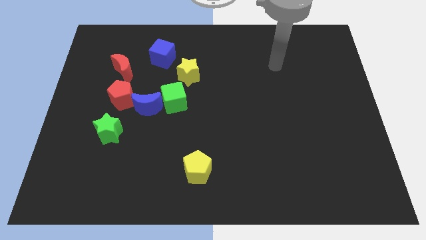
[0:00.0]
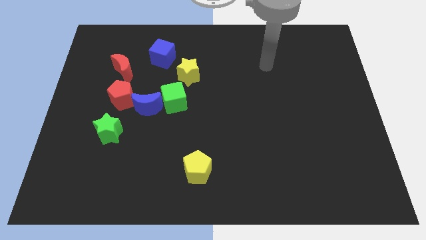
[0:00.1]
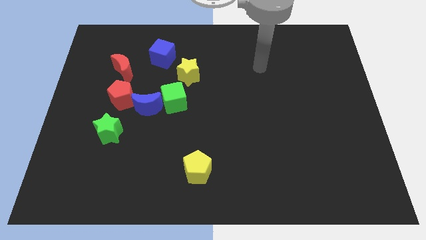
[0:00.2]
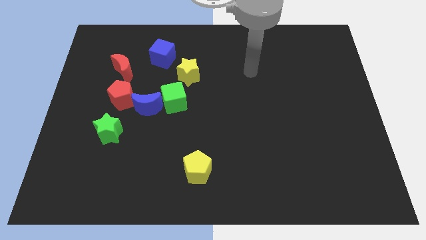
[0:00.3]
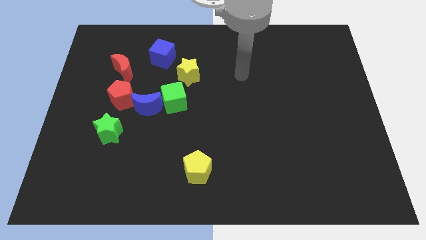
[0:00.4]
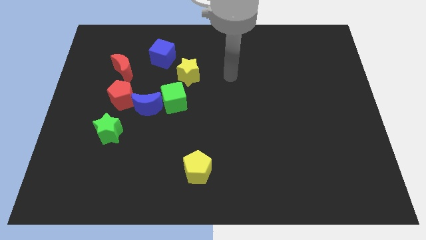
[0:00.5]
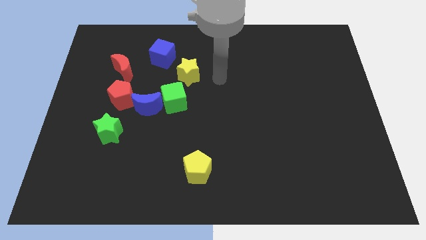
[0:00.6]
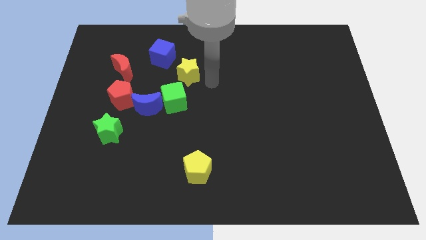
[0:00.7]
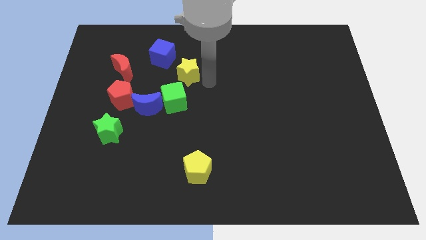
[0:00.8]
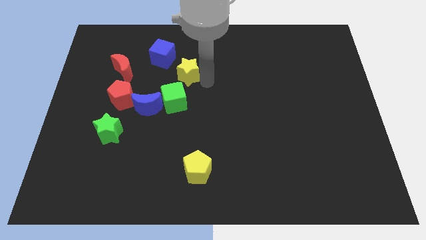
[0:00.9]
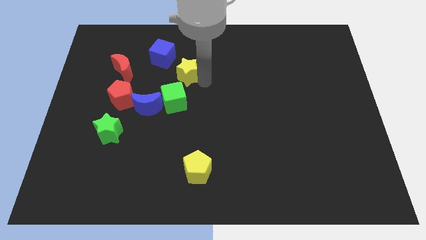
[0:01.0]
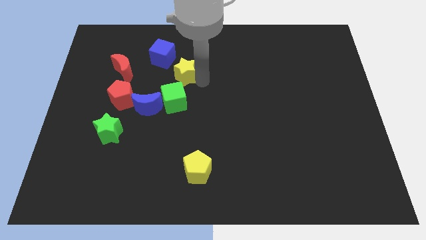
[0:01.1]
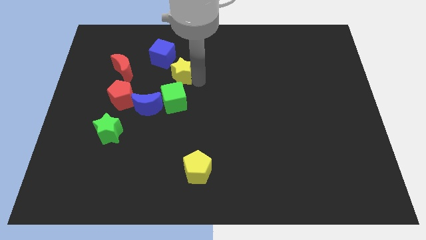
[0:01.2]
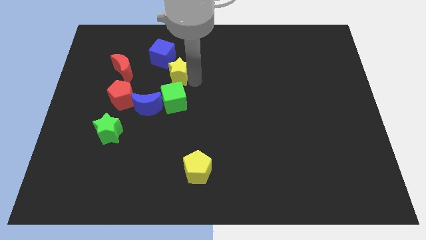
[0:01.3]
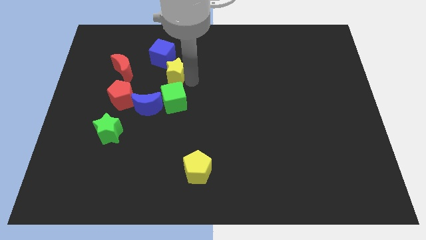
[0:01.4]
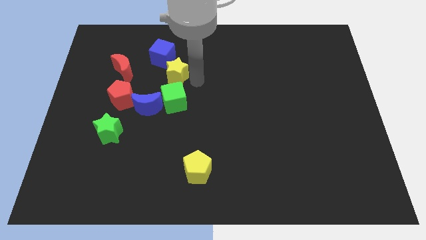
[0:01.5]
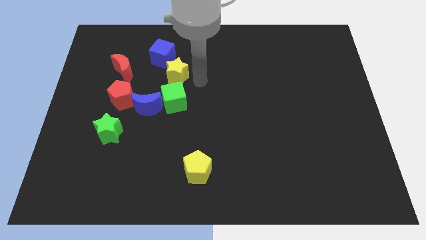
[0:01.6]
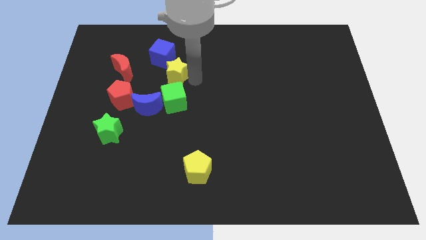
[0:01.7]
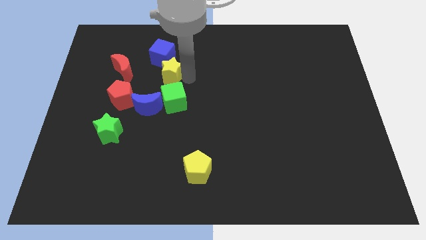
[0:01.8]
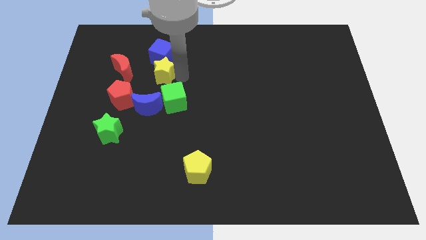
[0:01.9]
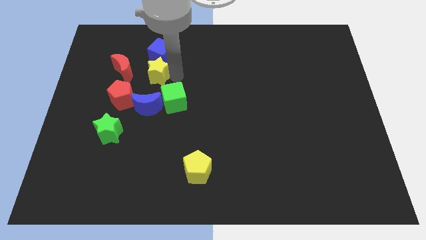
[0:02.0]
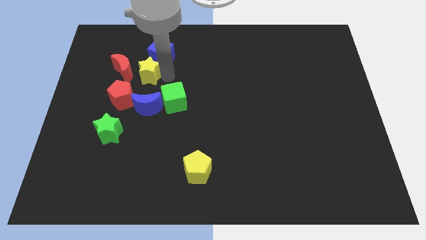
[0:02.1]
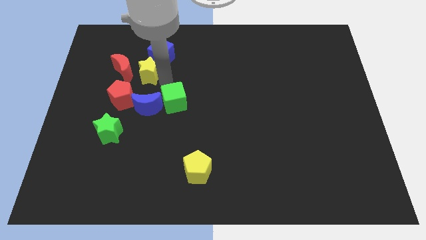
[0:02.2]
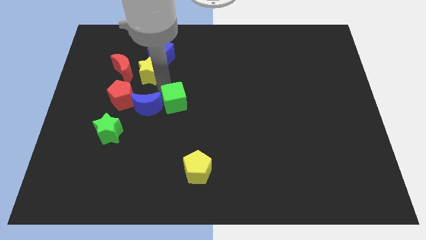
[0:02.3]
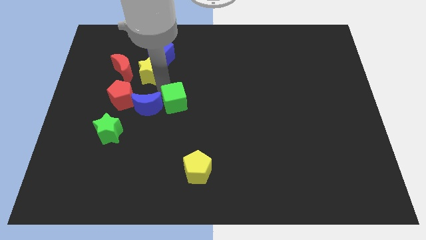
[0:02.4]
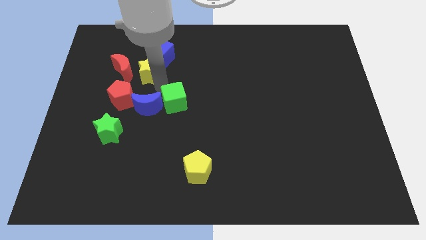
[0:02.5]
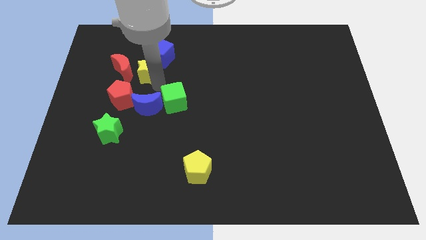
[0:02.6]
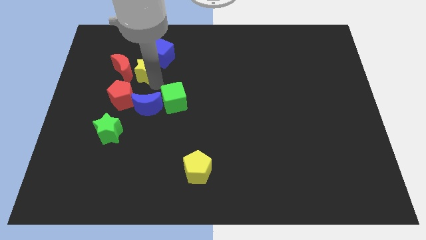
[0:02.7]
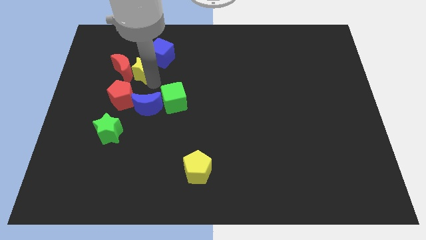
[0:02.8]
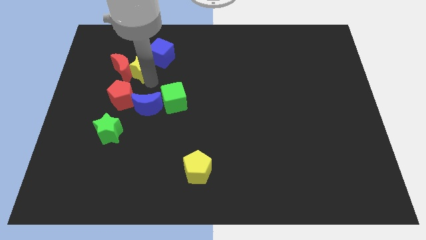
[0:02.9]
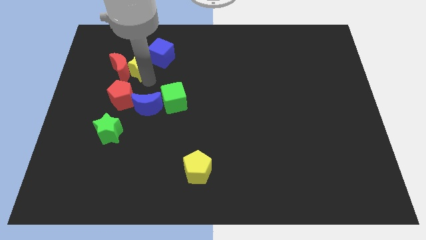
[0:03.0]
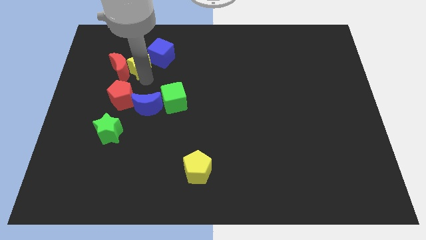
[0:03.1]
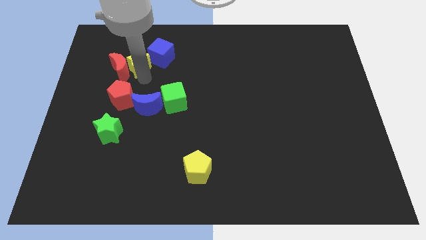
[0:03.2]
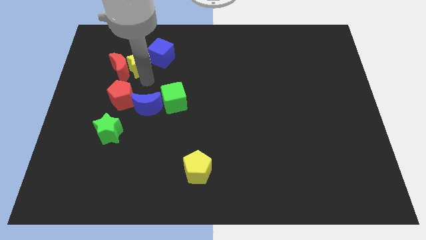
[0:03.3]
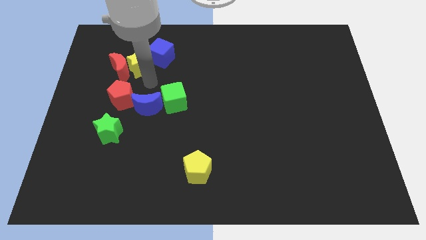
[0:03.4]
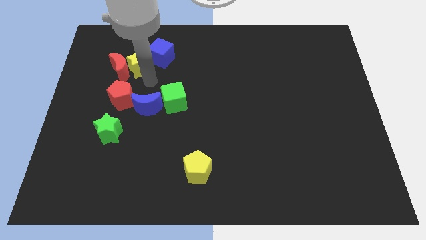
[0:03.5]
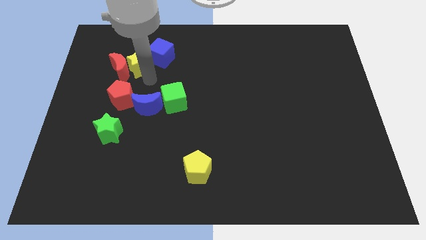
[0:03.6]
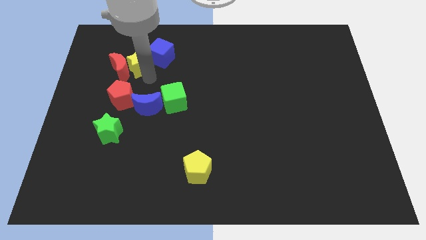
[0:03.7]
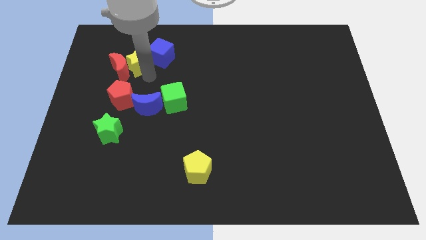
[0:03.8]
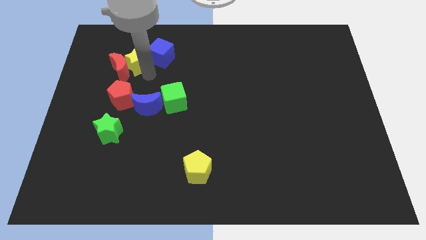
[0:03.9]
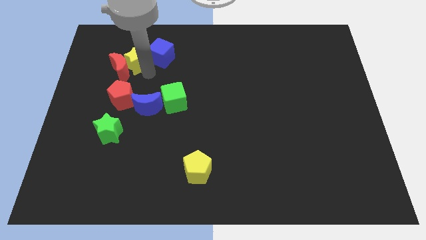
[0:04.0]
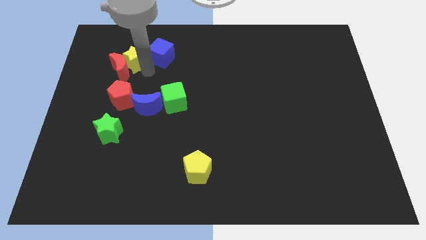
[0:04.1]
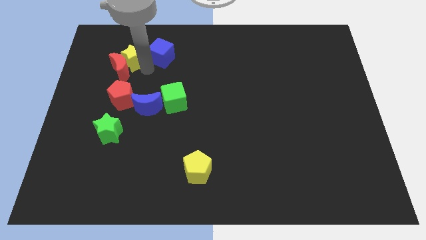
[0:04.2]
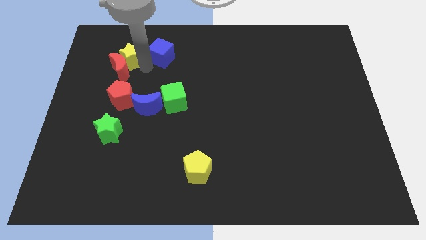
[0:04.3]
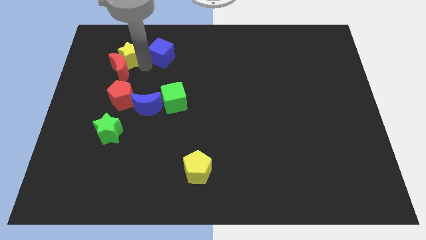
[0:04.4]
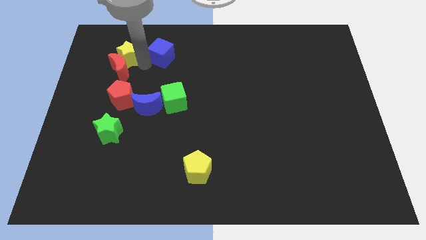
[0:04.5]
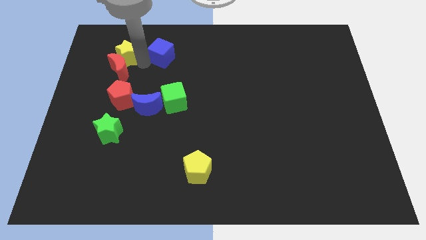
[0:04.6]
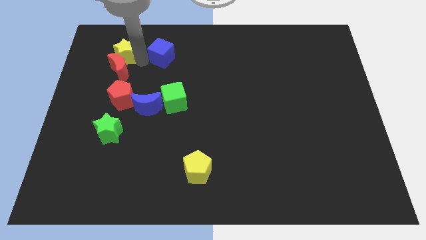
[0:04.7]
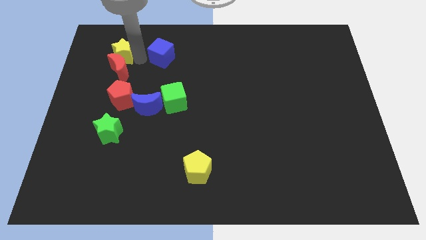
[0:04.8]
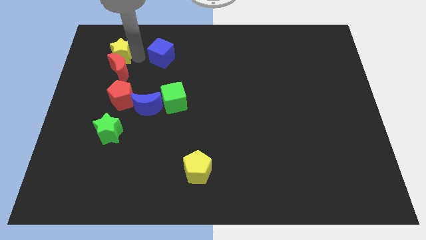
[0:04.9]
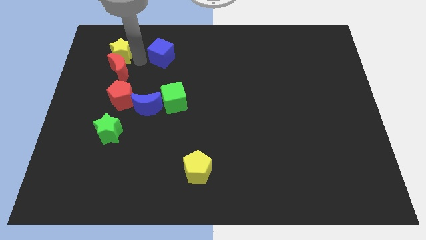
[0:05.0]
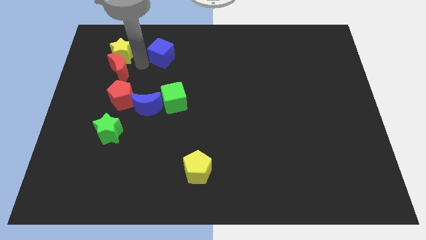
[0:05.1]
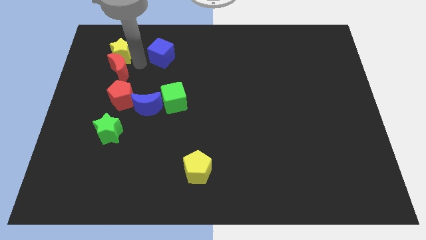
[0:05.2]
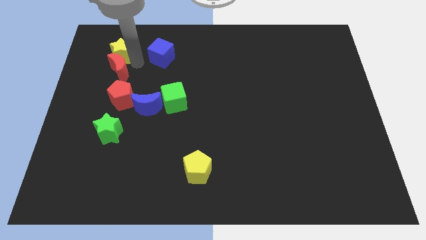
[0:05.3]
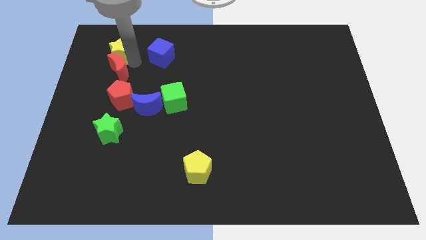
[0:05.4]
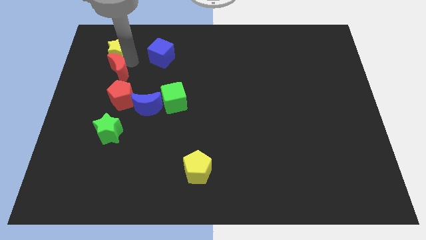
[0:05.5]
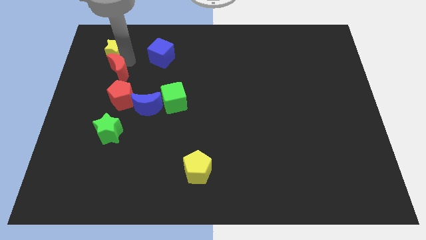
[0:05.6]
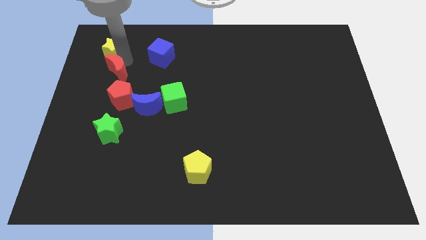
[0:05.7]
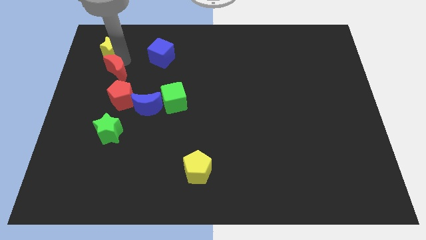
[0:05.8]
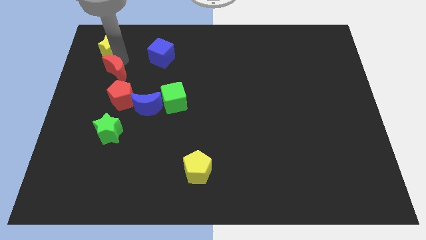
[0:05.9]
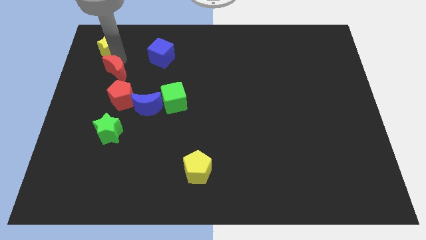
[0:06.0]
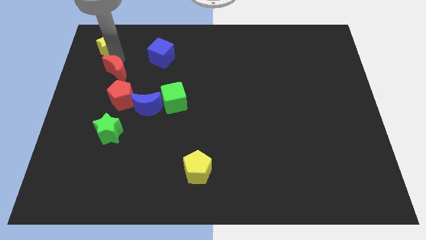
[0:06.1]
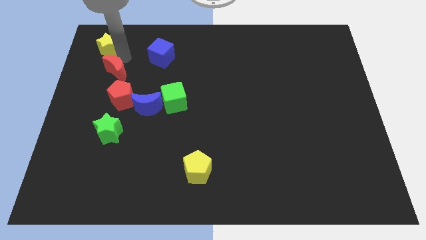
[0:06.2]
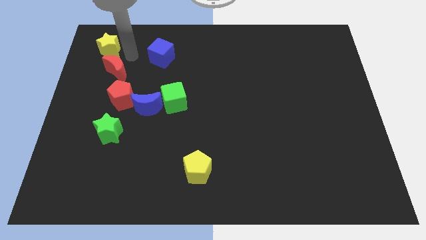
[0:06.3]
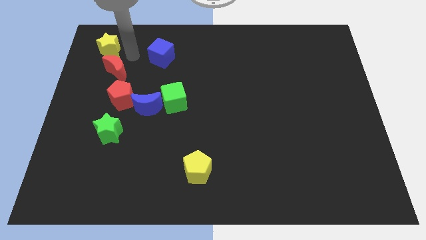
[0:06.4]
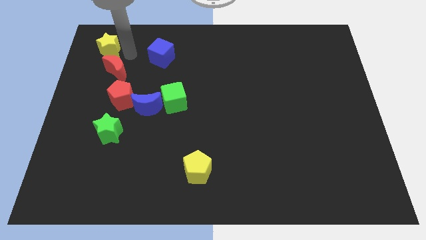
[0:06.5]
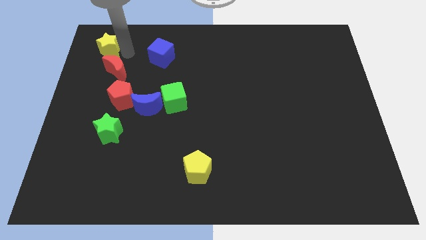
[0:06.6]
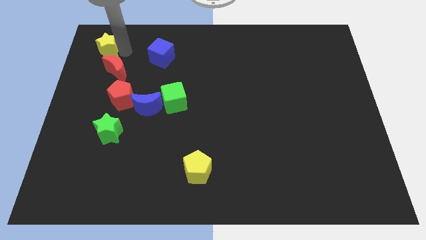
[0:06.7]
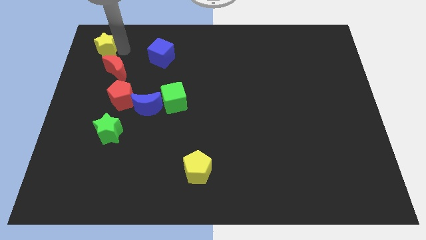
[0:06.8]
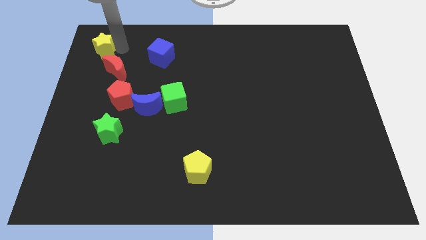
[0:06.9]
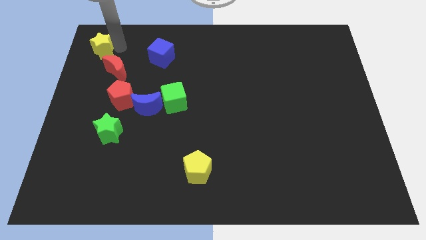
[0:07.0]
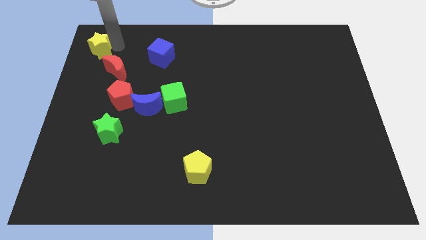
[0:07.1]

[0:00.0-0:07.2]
put the yellow star to the top left of the board
